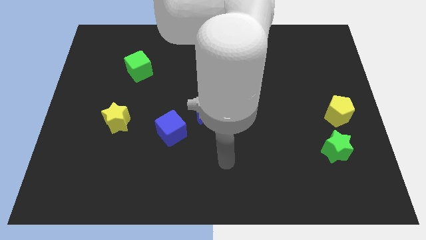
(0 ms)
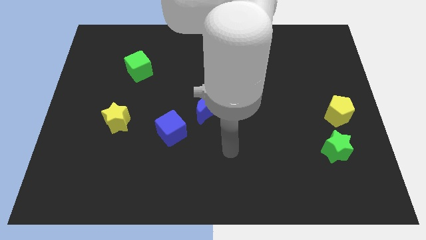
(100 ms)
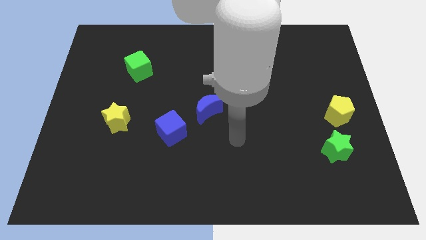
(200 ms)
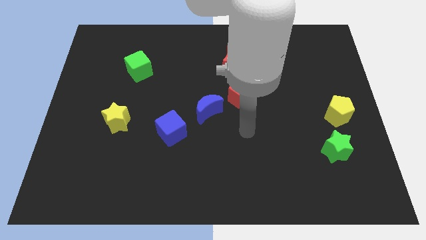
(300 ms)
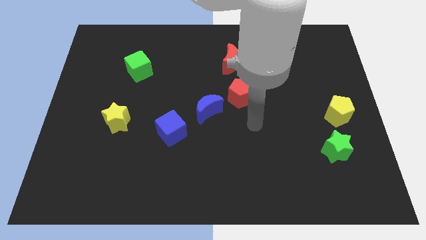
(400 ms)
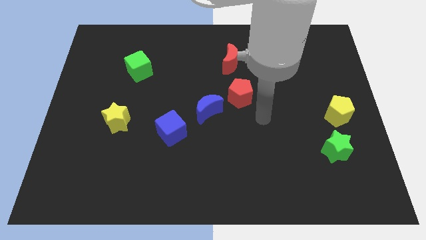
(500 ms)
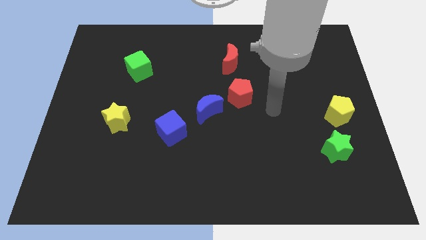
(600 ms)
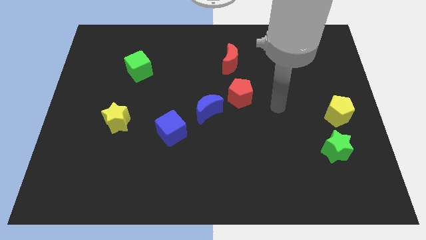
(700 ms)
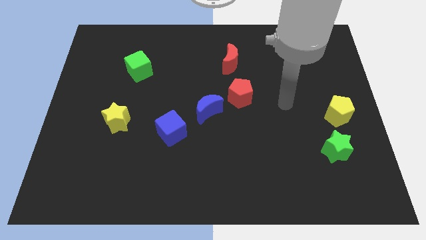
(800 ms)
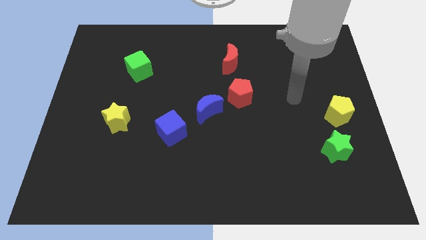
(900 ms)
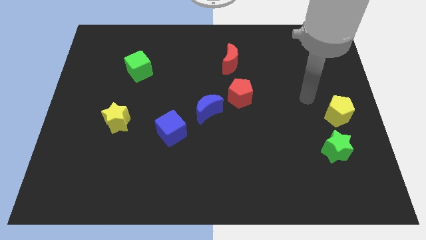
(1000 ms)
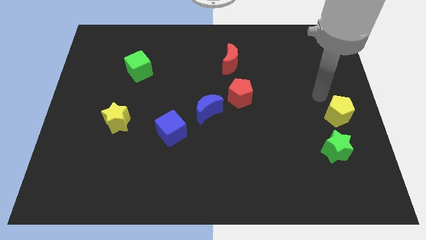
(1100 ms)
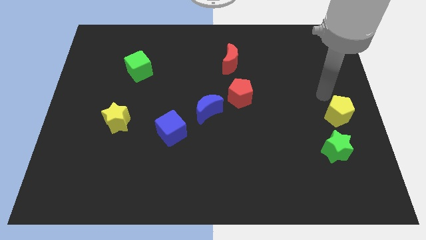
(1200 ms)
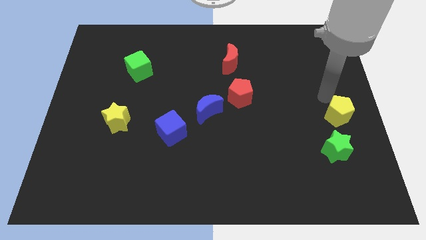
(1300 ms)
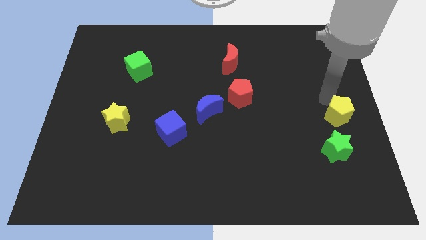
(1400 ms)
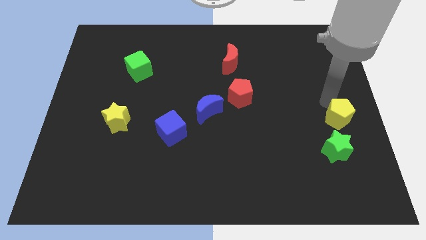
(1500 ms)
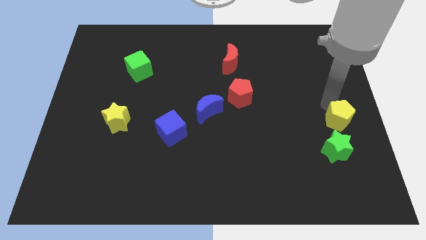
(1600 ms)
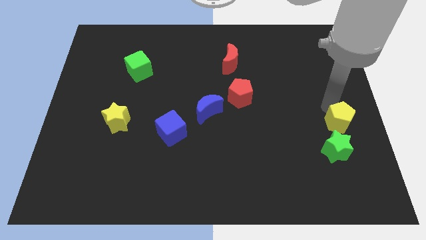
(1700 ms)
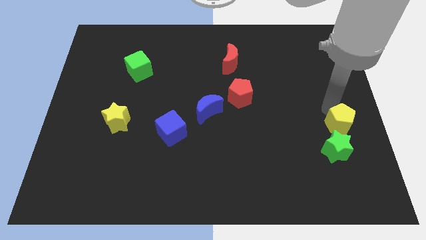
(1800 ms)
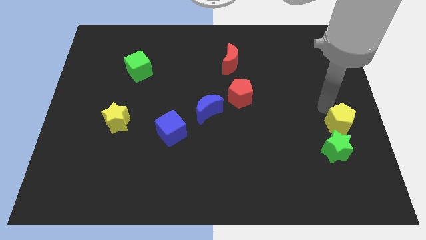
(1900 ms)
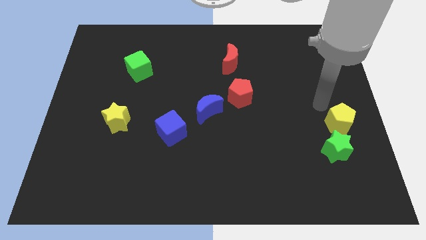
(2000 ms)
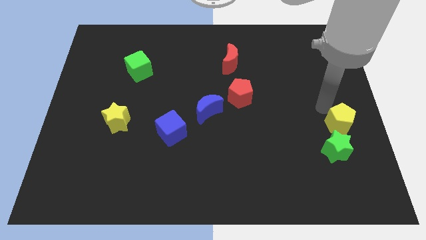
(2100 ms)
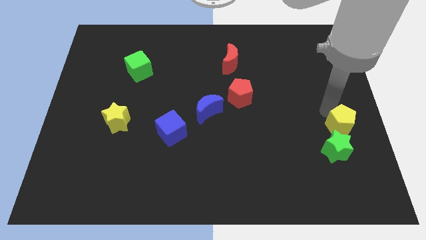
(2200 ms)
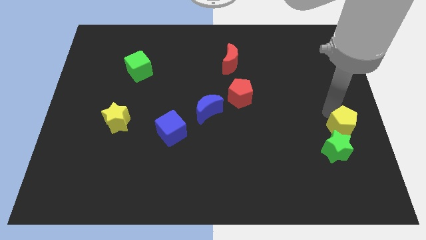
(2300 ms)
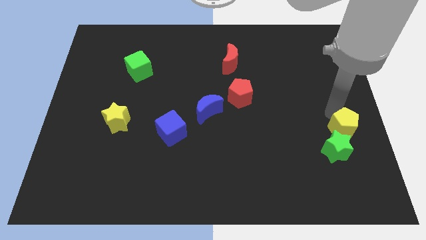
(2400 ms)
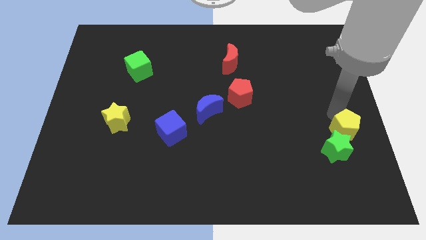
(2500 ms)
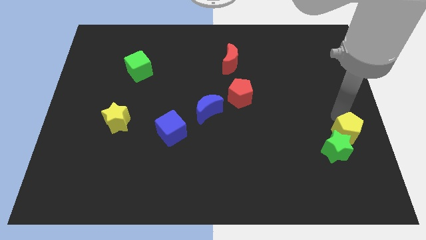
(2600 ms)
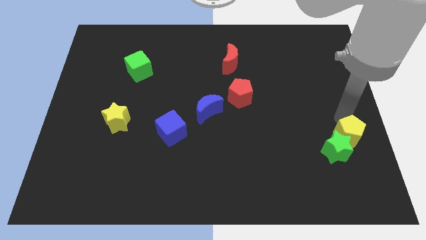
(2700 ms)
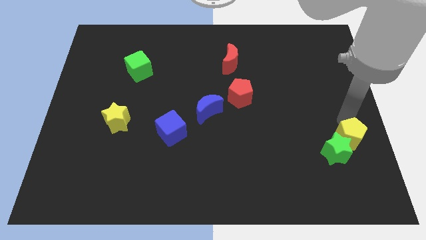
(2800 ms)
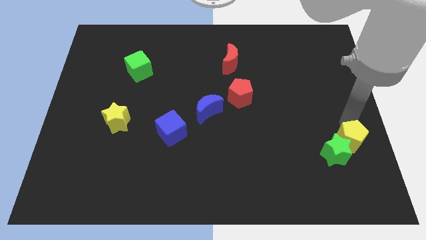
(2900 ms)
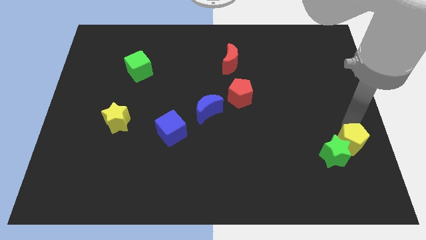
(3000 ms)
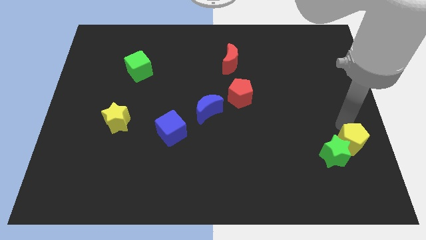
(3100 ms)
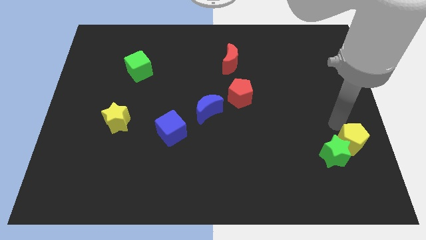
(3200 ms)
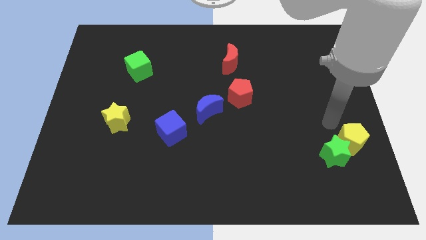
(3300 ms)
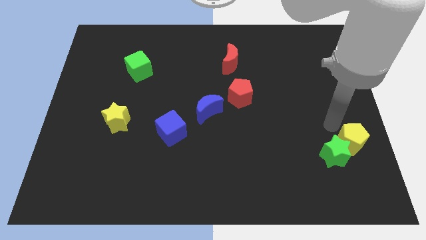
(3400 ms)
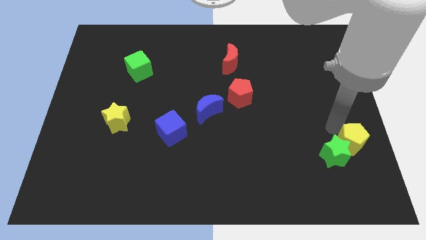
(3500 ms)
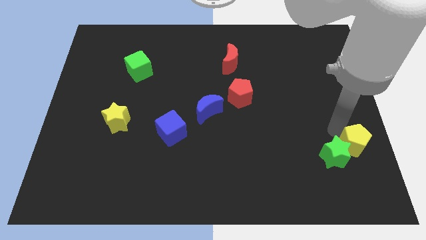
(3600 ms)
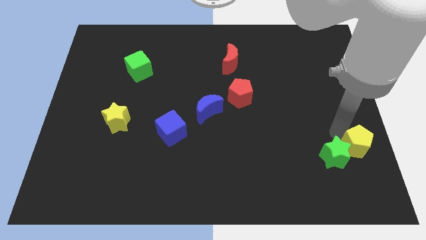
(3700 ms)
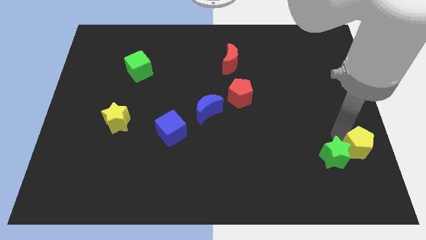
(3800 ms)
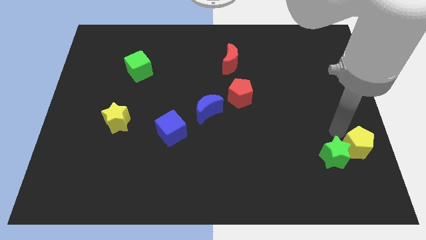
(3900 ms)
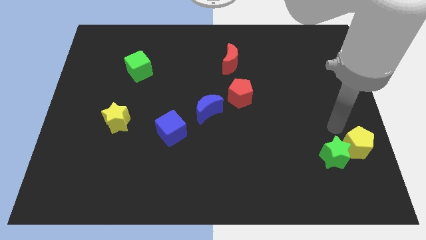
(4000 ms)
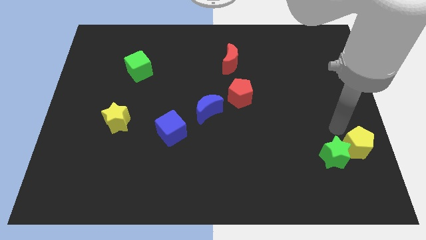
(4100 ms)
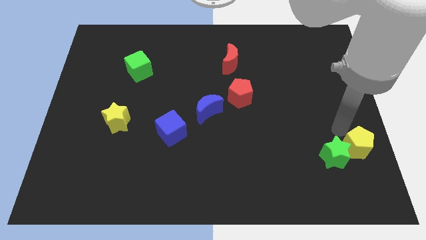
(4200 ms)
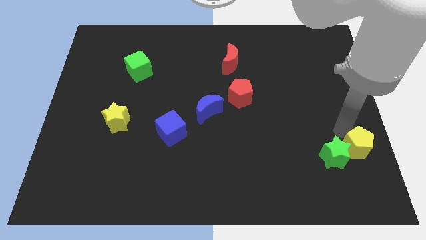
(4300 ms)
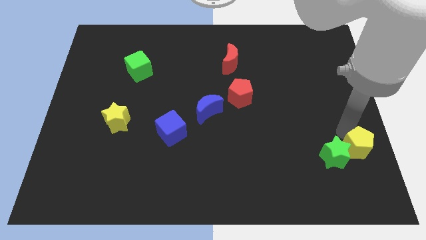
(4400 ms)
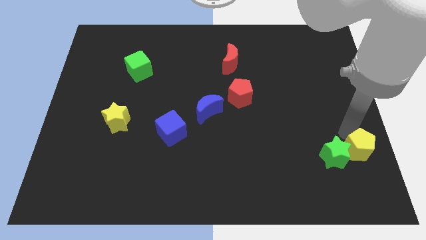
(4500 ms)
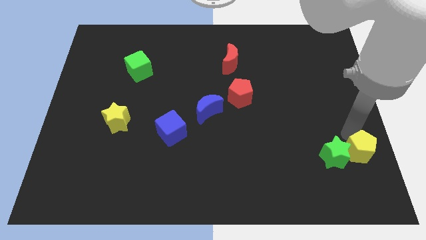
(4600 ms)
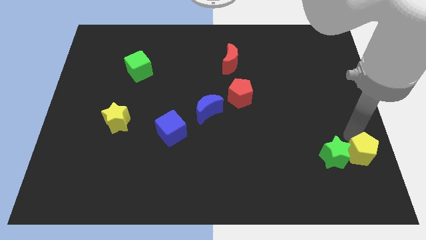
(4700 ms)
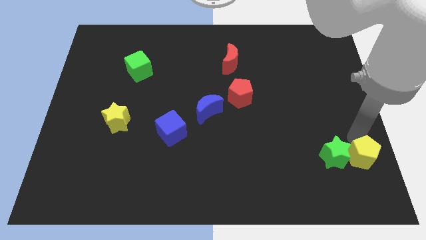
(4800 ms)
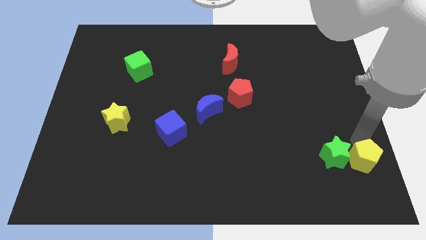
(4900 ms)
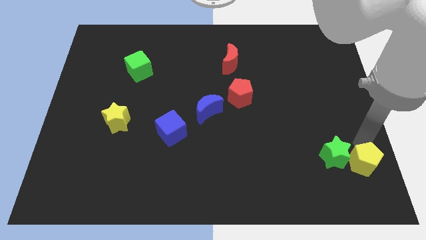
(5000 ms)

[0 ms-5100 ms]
slide the yellow pentagon to the bottom right

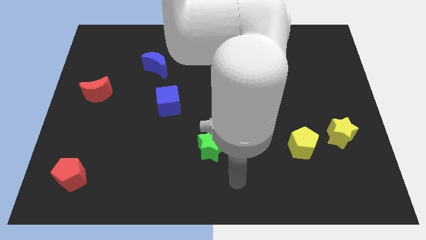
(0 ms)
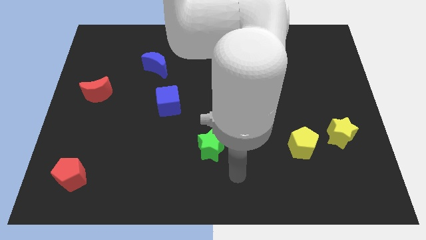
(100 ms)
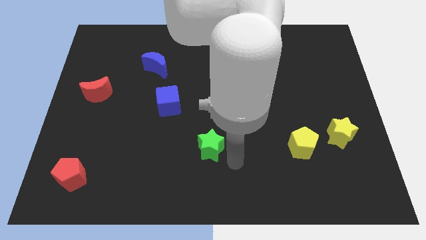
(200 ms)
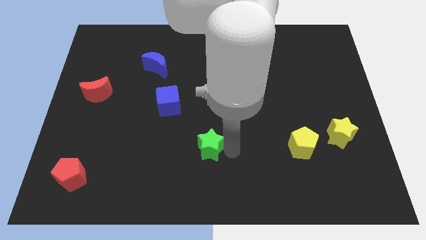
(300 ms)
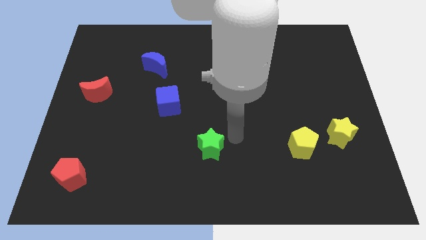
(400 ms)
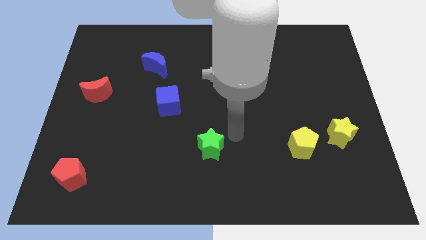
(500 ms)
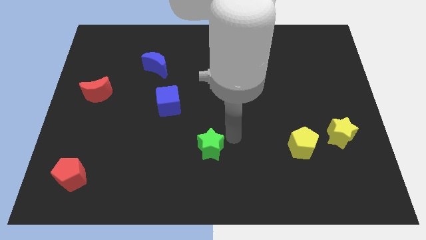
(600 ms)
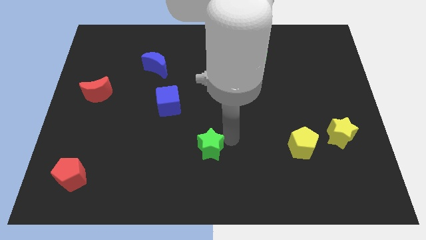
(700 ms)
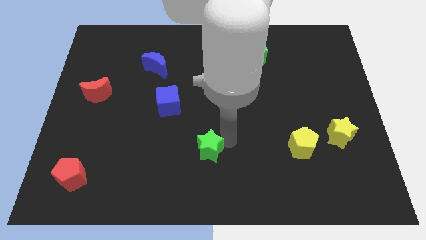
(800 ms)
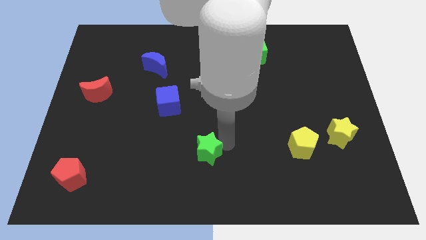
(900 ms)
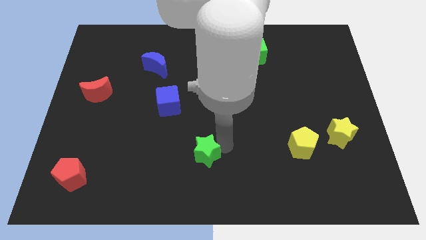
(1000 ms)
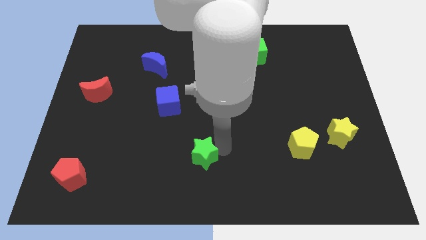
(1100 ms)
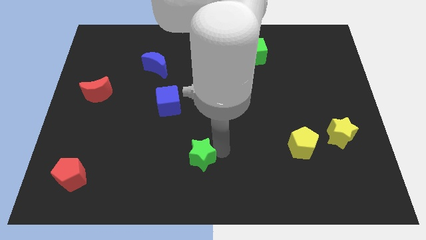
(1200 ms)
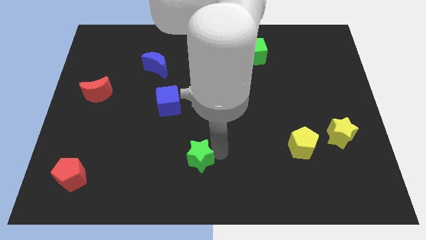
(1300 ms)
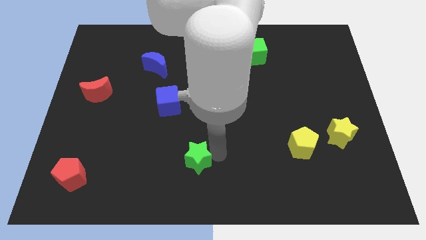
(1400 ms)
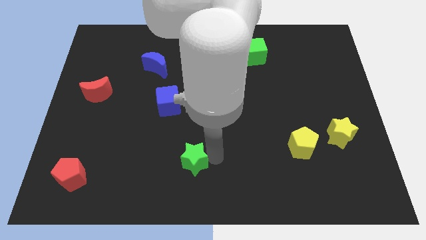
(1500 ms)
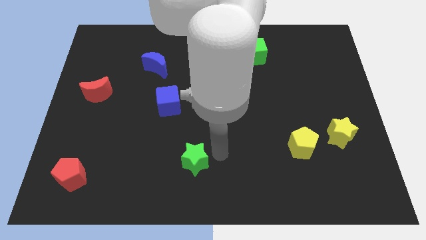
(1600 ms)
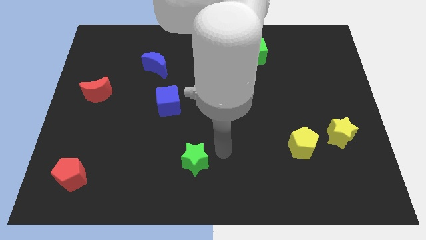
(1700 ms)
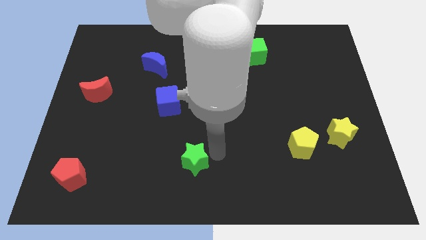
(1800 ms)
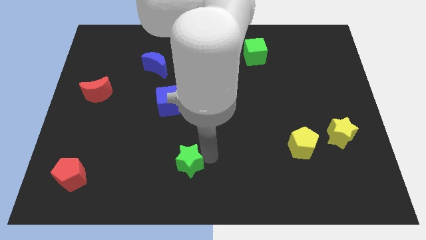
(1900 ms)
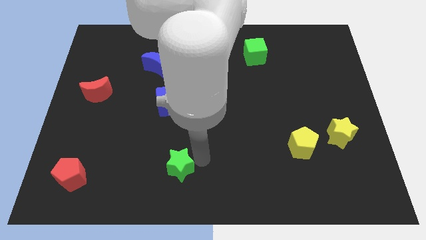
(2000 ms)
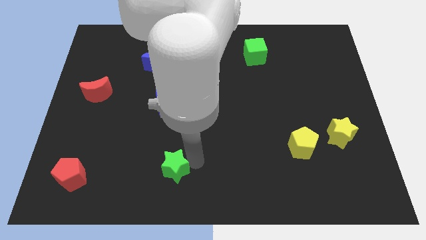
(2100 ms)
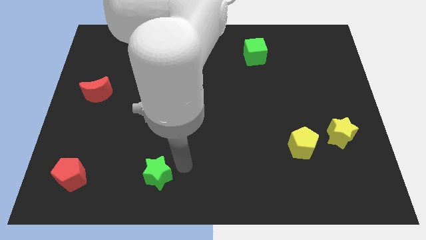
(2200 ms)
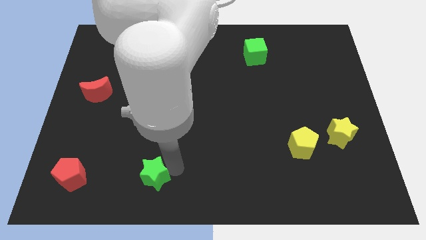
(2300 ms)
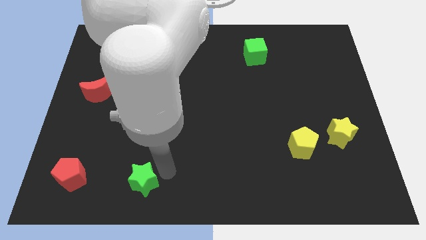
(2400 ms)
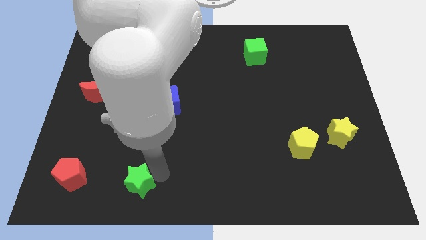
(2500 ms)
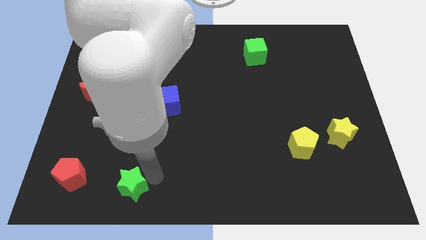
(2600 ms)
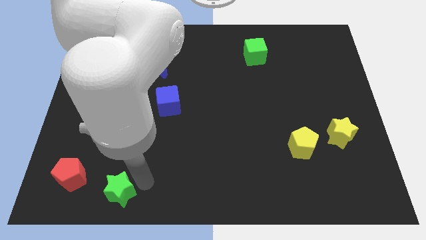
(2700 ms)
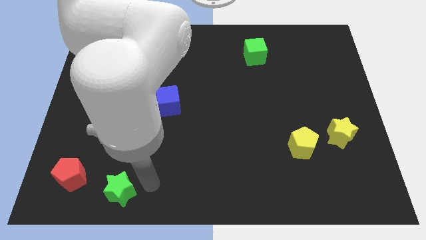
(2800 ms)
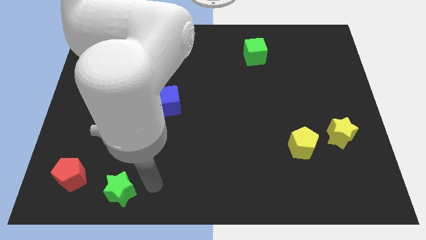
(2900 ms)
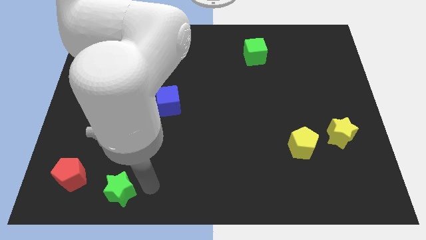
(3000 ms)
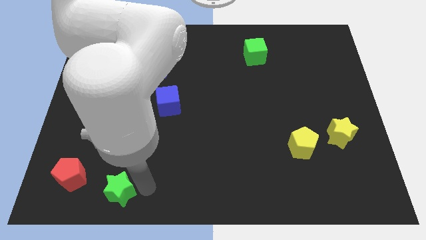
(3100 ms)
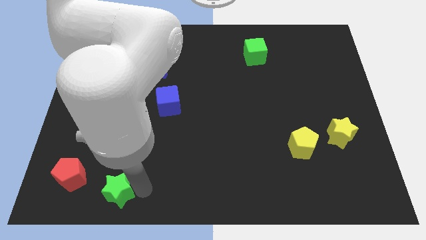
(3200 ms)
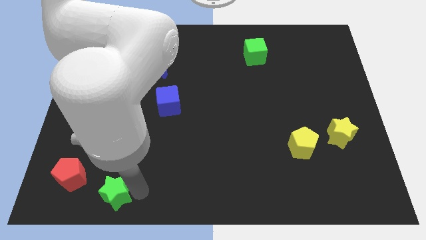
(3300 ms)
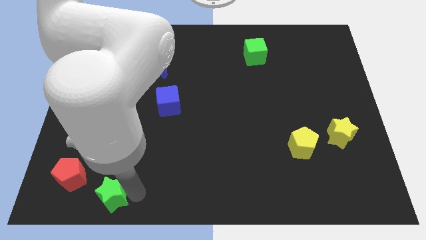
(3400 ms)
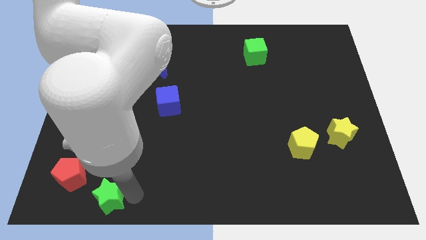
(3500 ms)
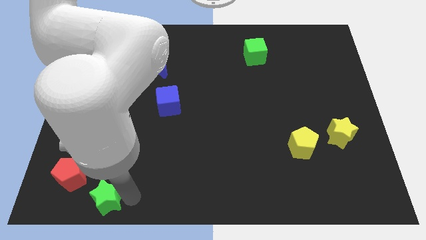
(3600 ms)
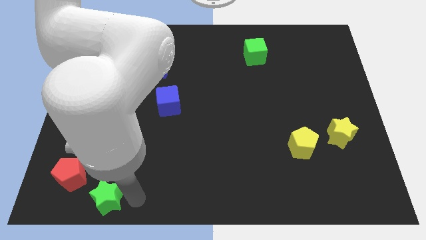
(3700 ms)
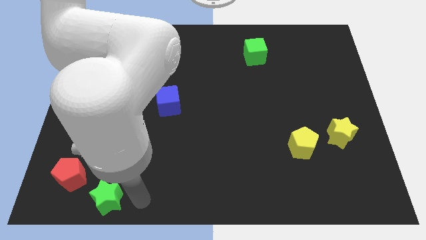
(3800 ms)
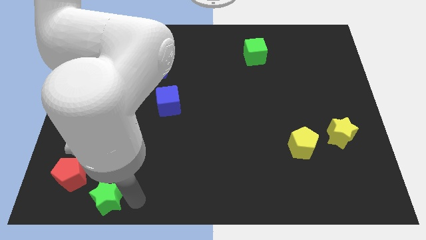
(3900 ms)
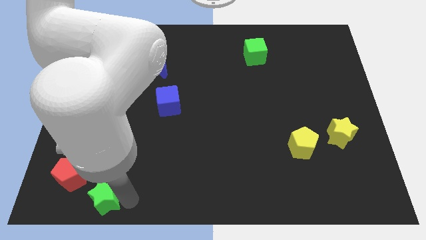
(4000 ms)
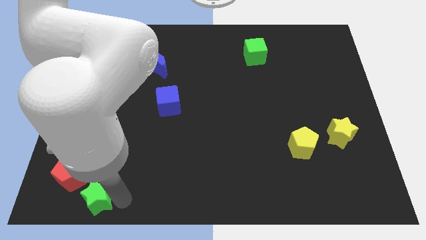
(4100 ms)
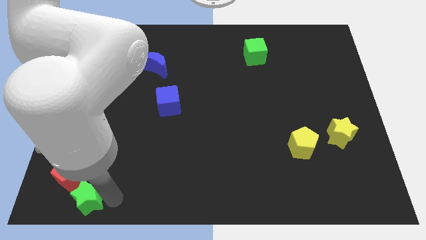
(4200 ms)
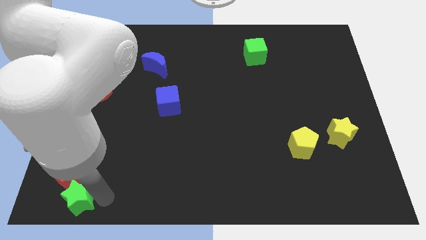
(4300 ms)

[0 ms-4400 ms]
slide the green star to the bottom left
